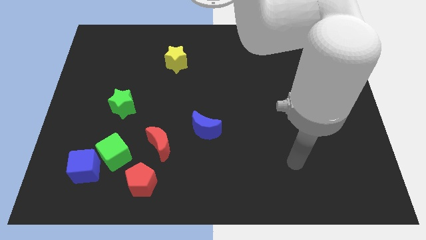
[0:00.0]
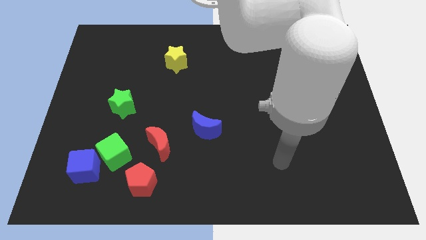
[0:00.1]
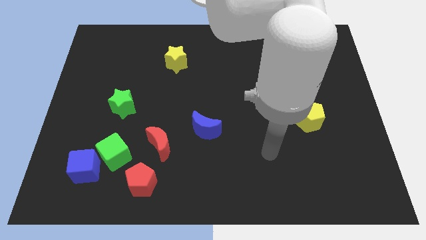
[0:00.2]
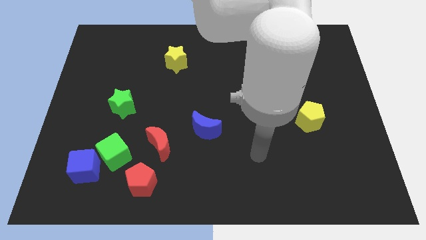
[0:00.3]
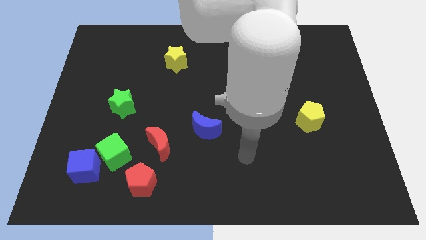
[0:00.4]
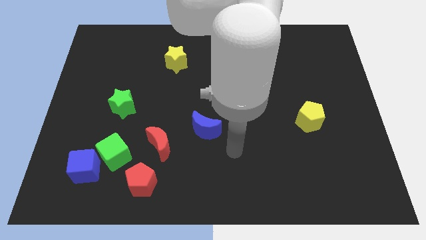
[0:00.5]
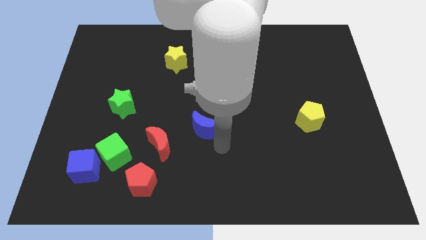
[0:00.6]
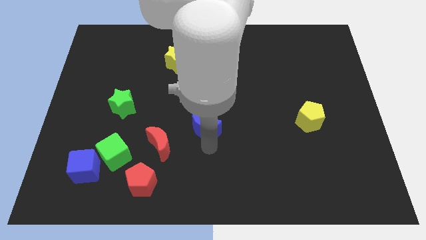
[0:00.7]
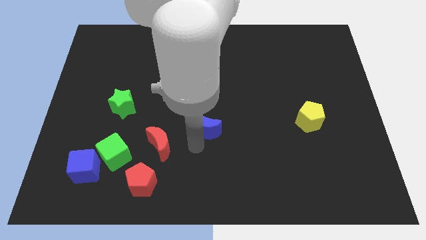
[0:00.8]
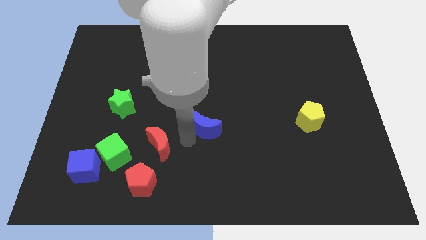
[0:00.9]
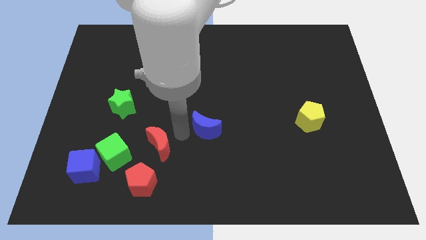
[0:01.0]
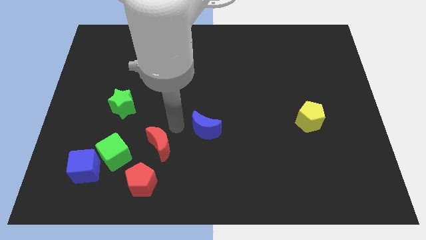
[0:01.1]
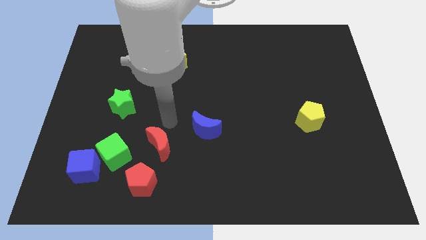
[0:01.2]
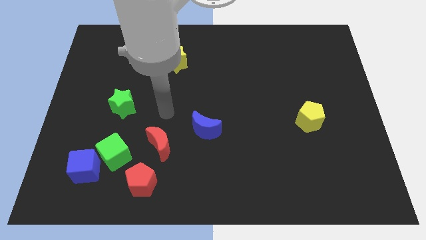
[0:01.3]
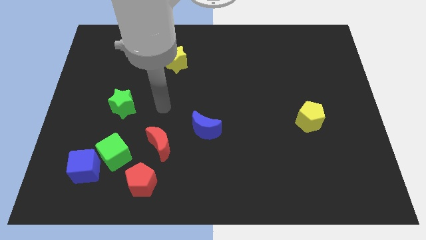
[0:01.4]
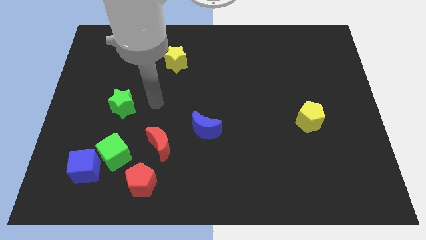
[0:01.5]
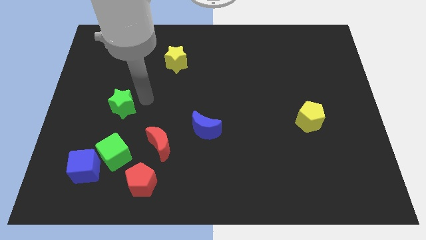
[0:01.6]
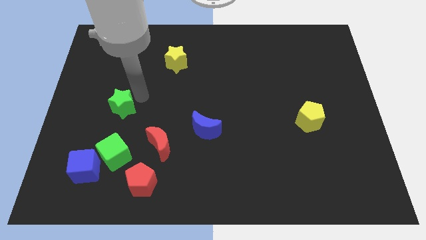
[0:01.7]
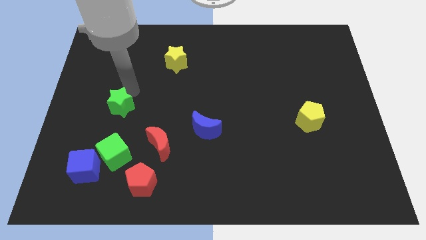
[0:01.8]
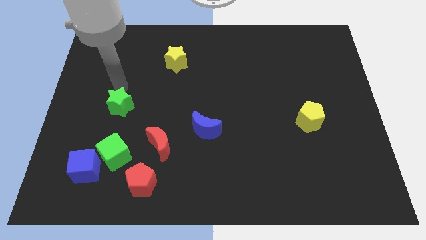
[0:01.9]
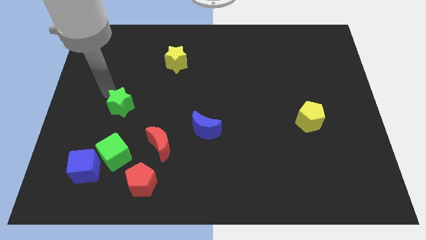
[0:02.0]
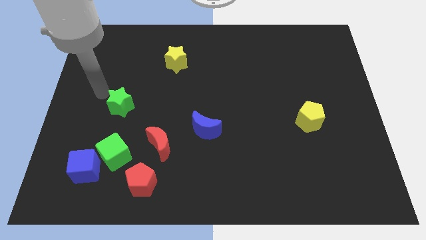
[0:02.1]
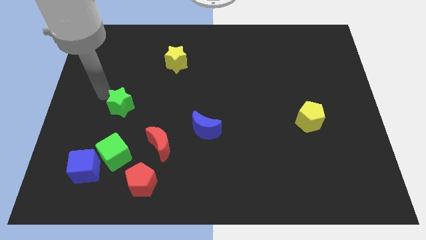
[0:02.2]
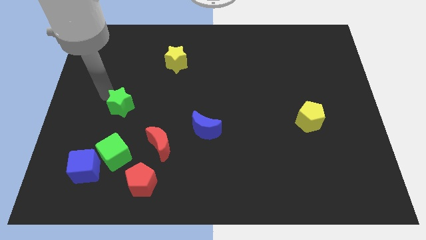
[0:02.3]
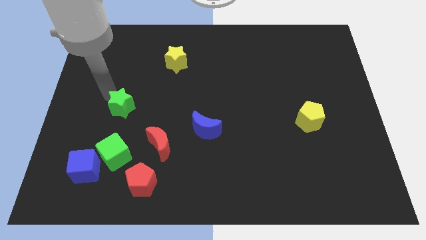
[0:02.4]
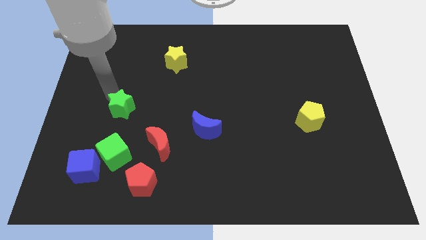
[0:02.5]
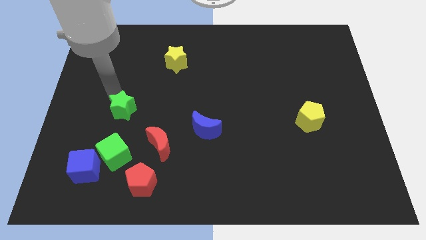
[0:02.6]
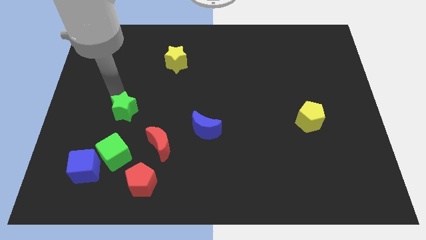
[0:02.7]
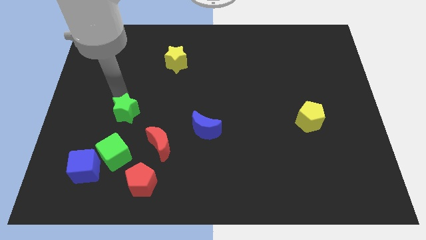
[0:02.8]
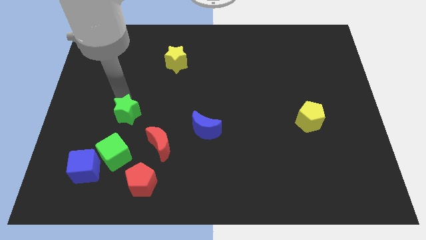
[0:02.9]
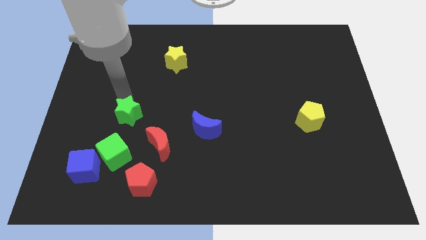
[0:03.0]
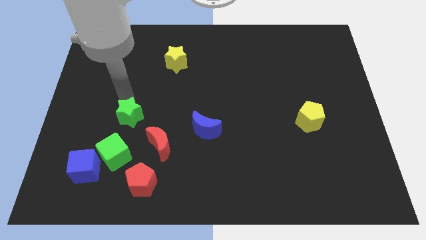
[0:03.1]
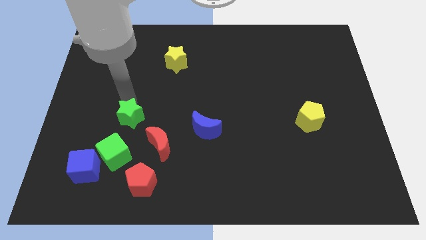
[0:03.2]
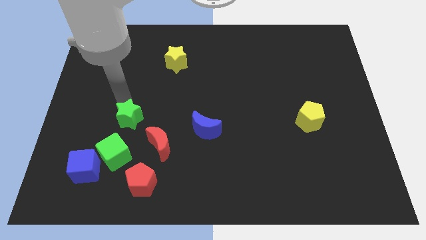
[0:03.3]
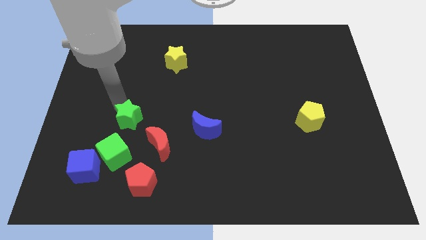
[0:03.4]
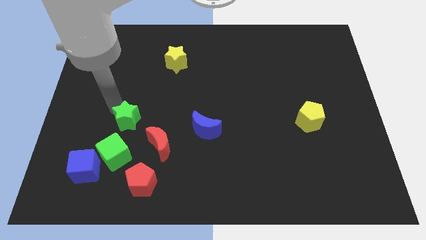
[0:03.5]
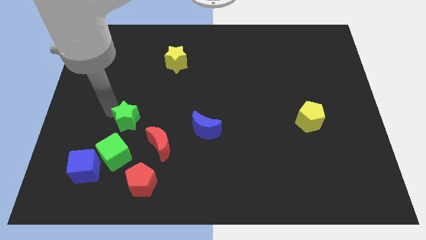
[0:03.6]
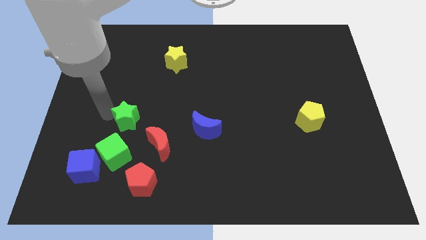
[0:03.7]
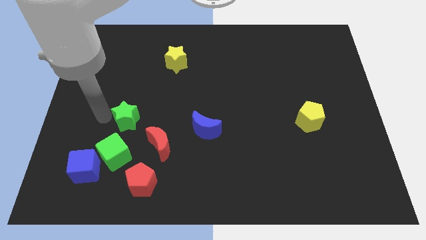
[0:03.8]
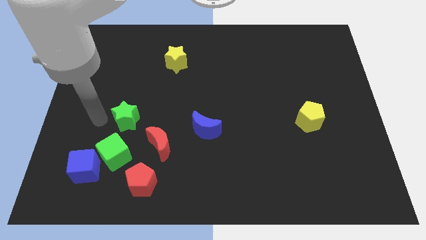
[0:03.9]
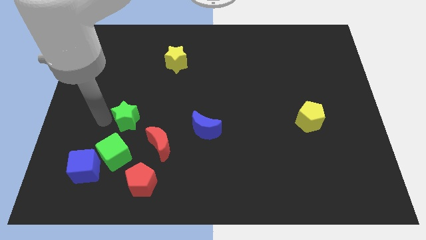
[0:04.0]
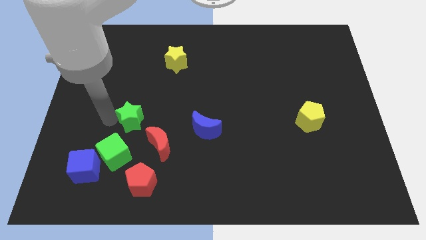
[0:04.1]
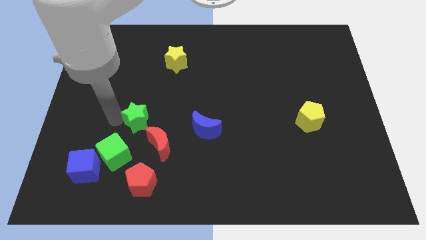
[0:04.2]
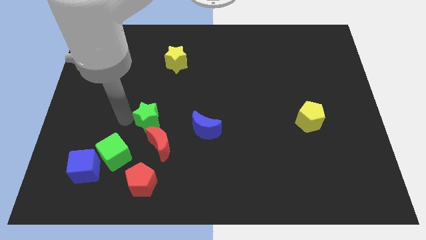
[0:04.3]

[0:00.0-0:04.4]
slightly push the green star diagonally down and right

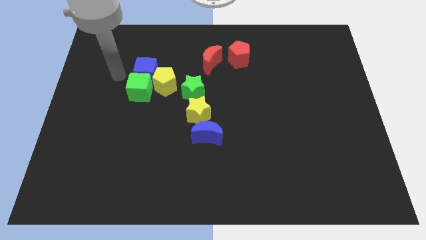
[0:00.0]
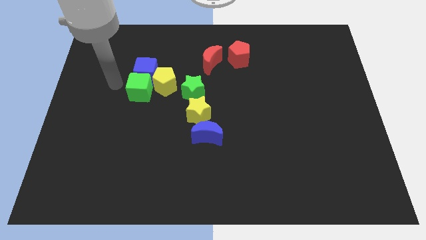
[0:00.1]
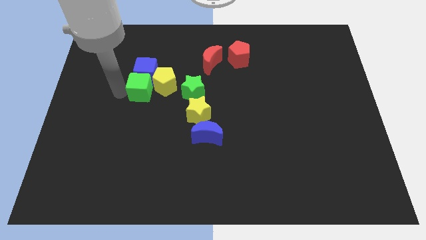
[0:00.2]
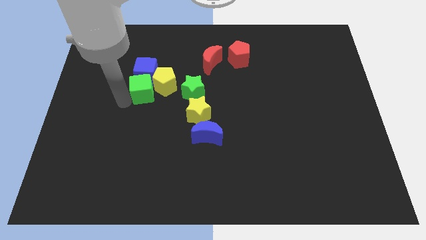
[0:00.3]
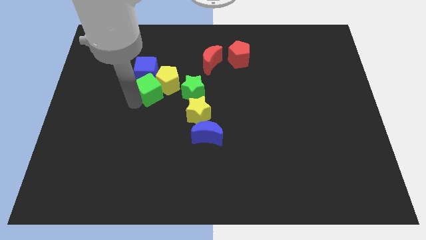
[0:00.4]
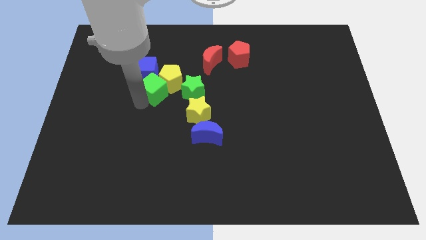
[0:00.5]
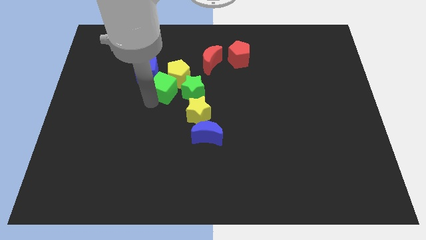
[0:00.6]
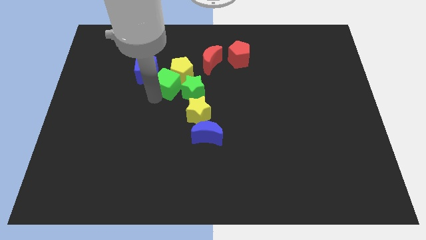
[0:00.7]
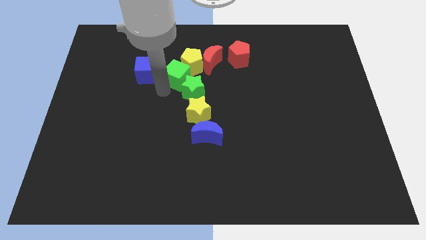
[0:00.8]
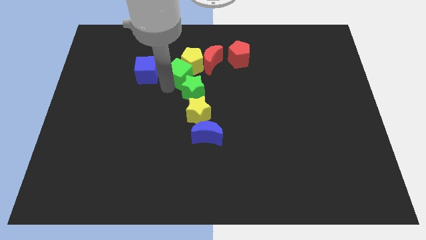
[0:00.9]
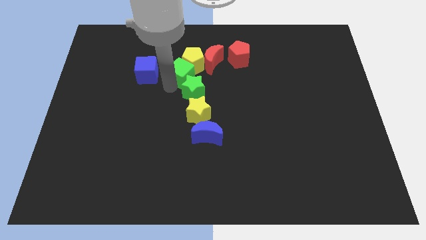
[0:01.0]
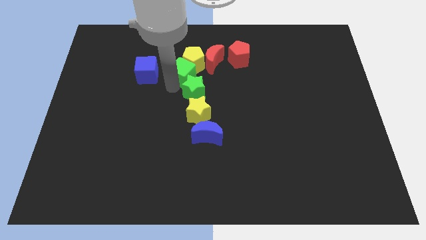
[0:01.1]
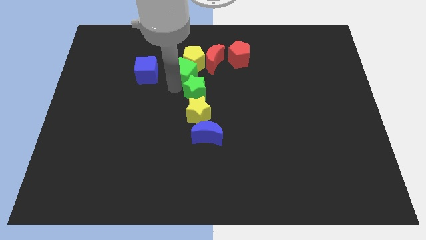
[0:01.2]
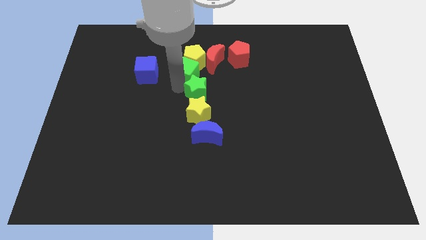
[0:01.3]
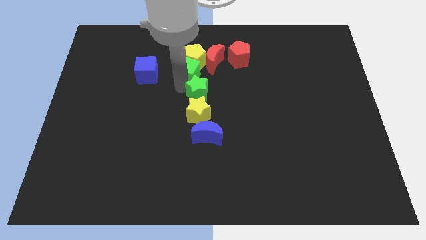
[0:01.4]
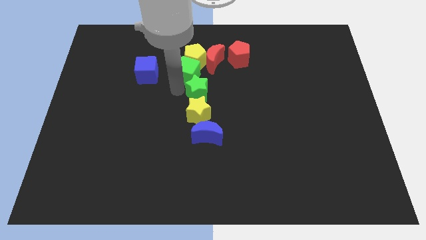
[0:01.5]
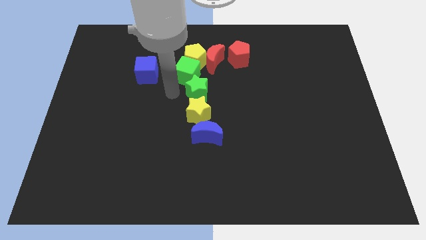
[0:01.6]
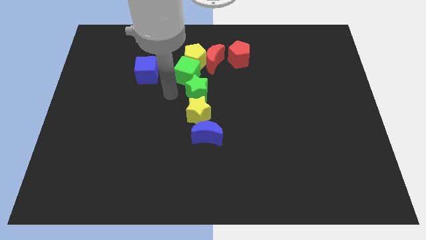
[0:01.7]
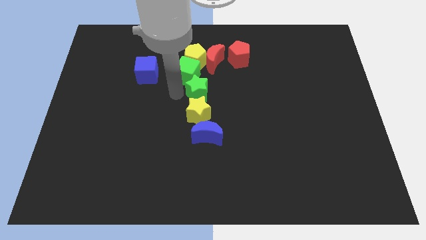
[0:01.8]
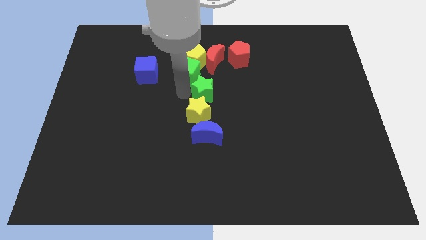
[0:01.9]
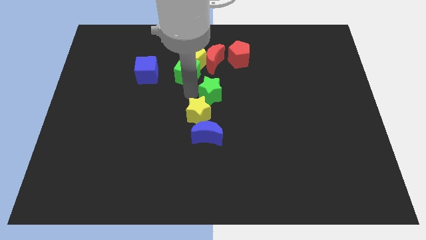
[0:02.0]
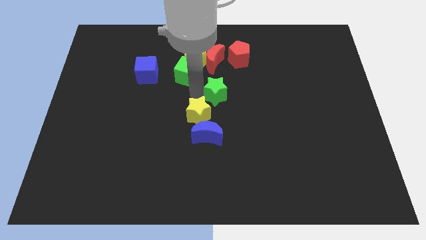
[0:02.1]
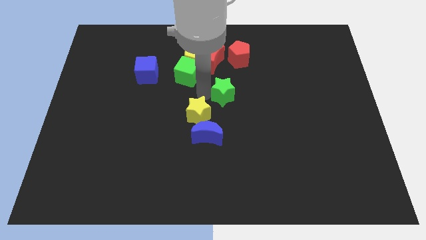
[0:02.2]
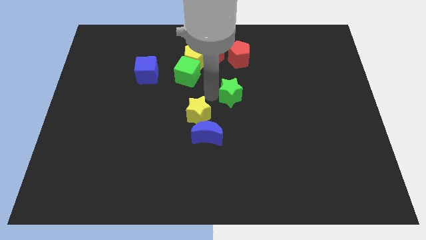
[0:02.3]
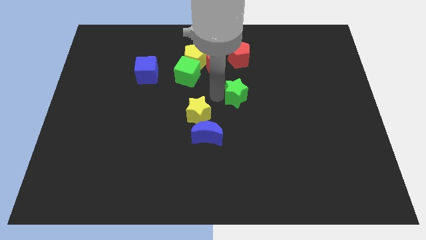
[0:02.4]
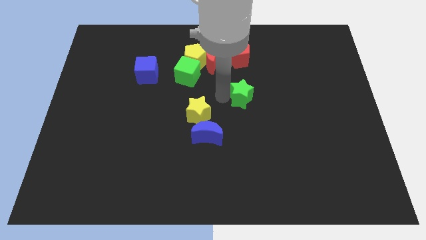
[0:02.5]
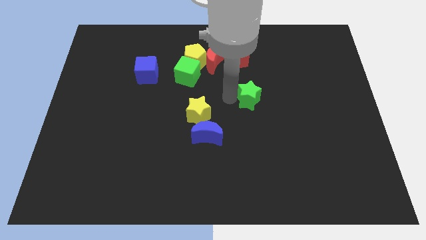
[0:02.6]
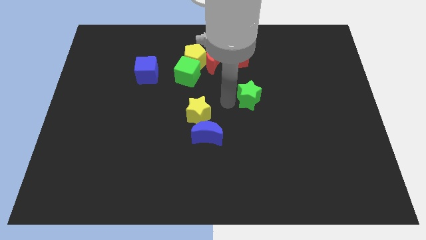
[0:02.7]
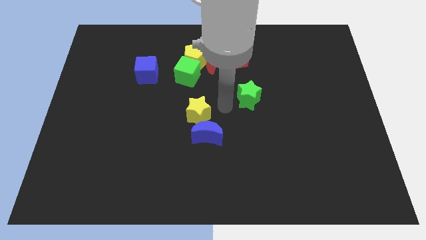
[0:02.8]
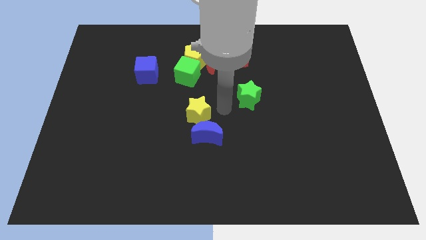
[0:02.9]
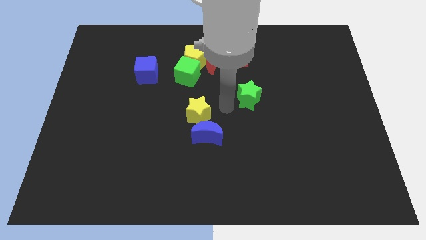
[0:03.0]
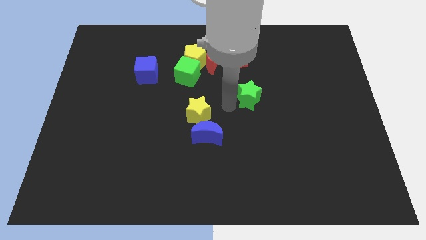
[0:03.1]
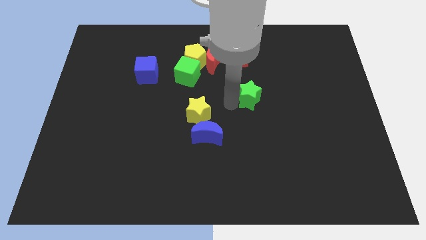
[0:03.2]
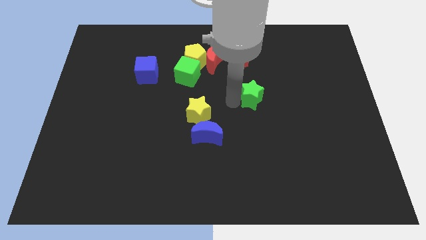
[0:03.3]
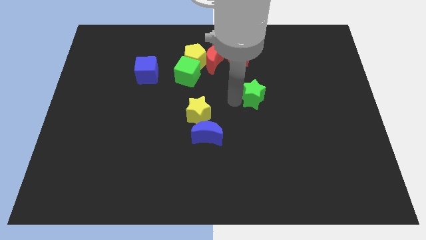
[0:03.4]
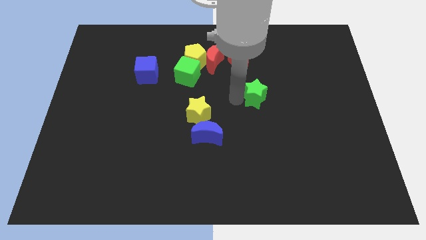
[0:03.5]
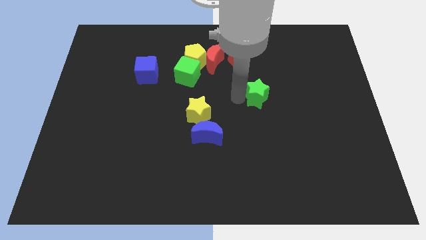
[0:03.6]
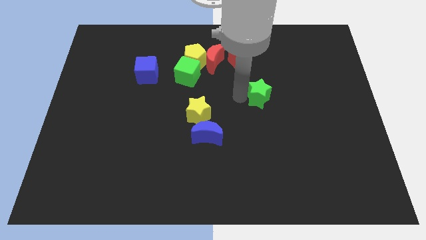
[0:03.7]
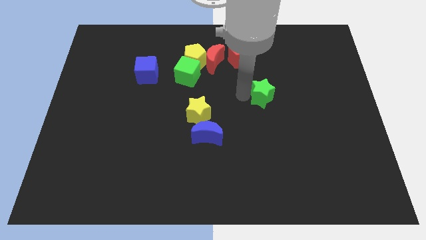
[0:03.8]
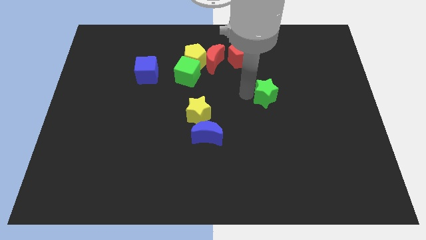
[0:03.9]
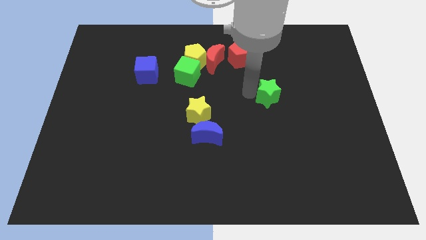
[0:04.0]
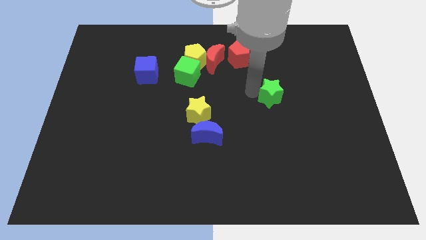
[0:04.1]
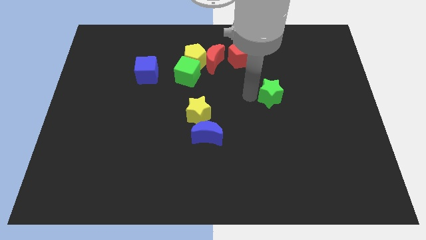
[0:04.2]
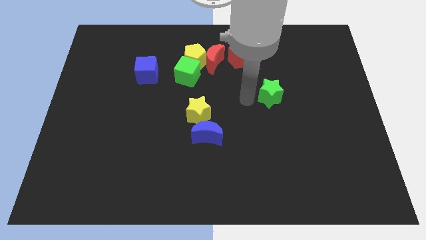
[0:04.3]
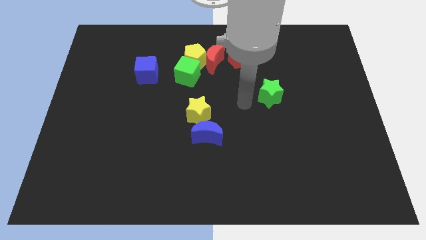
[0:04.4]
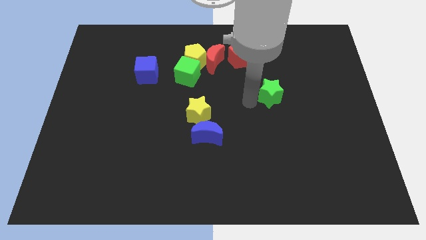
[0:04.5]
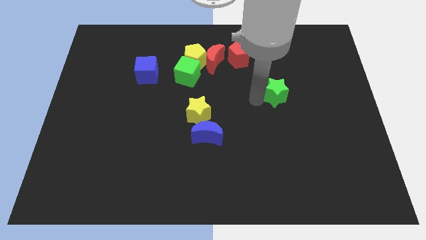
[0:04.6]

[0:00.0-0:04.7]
push the green star right
